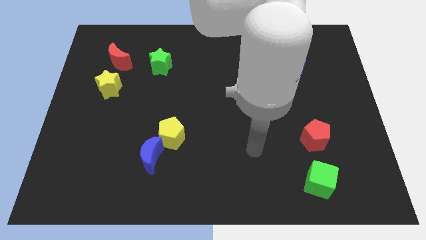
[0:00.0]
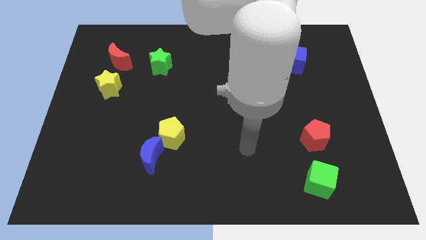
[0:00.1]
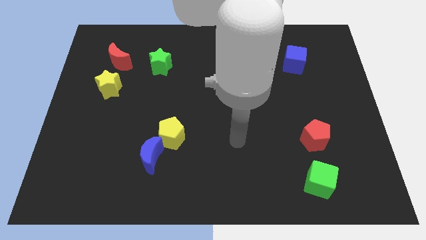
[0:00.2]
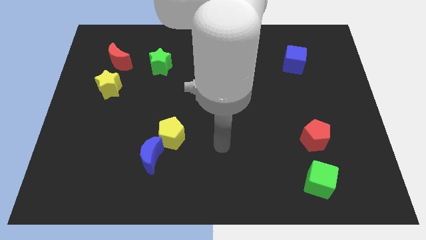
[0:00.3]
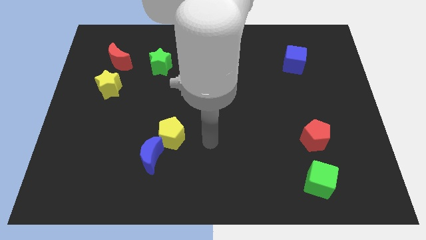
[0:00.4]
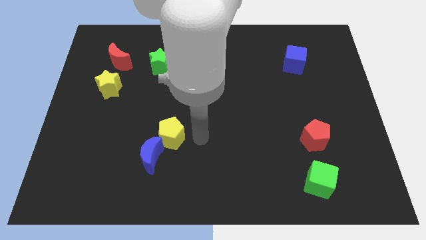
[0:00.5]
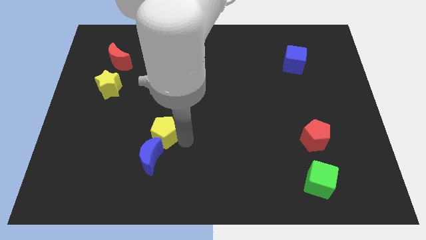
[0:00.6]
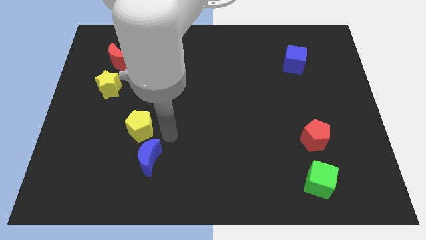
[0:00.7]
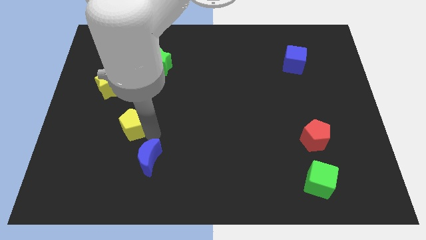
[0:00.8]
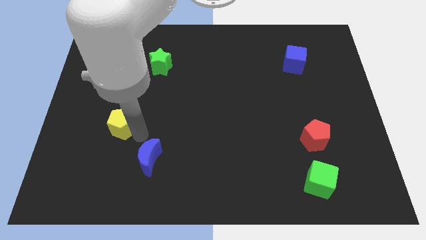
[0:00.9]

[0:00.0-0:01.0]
move the blue moon away from the yellow pentagon

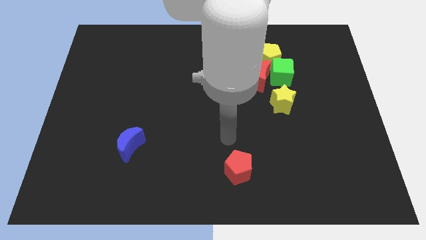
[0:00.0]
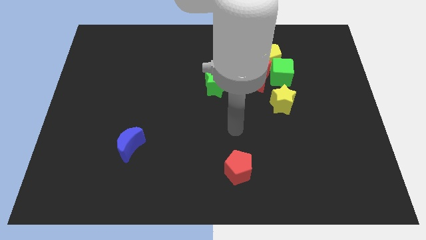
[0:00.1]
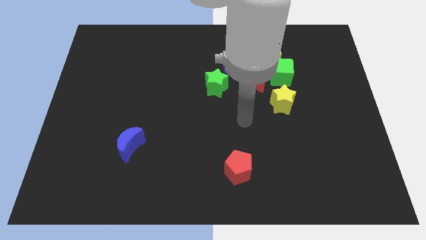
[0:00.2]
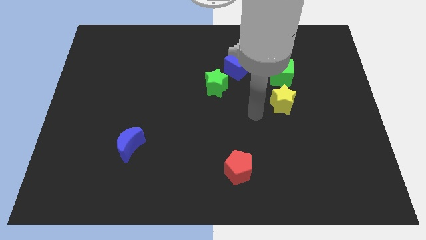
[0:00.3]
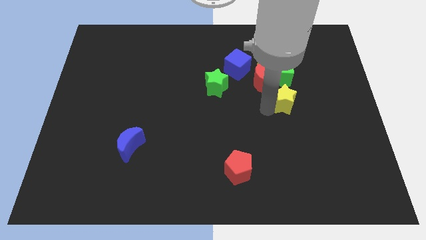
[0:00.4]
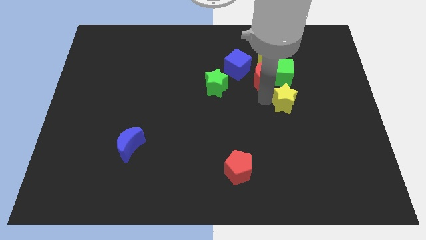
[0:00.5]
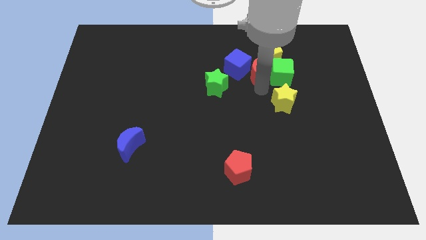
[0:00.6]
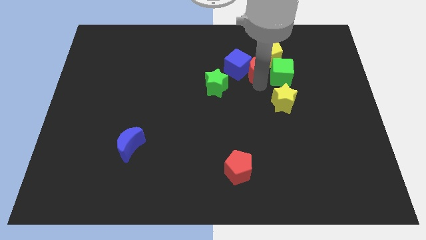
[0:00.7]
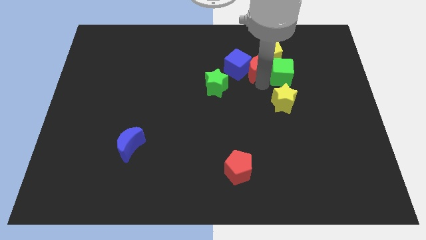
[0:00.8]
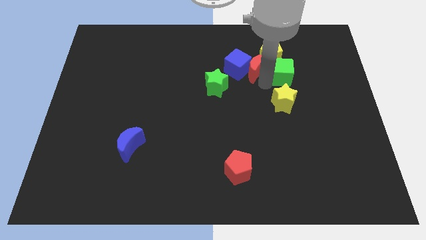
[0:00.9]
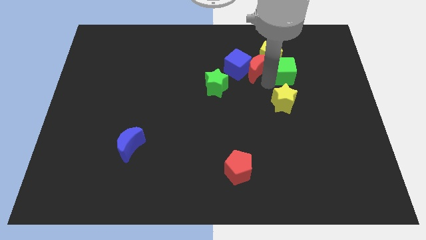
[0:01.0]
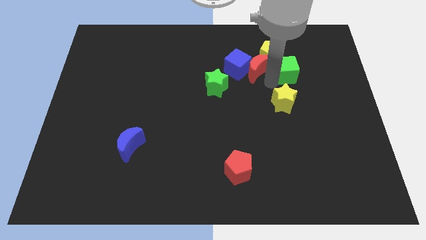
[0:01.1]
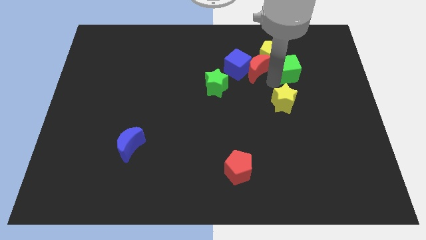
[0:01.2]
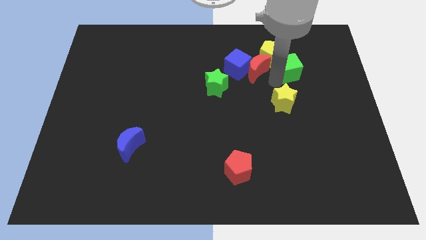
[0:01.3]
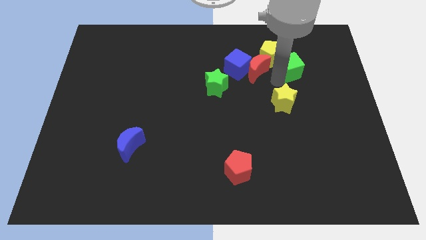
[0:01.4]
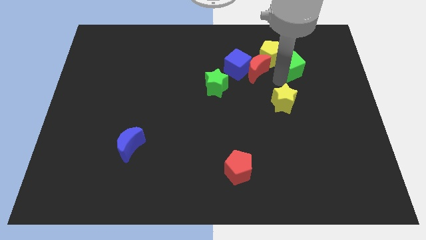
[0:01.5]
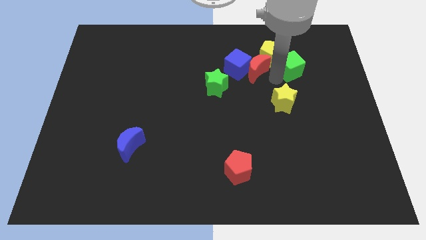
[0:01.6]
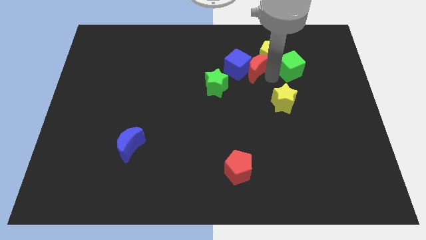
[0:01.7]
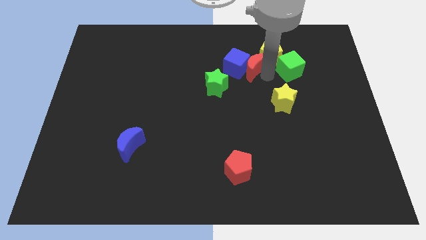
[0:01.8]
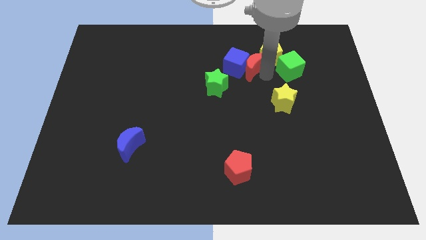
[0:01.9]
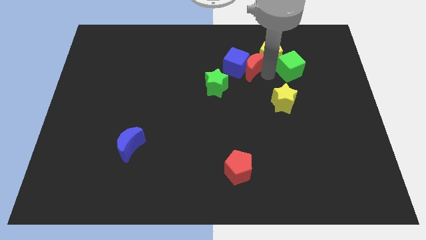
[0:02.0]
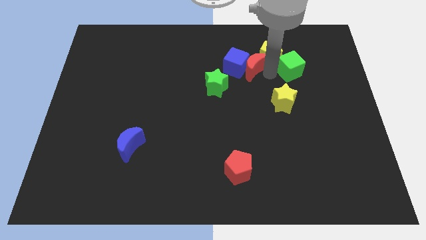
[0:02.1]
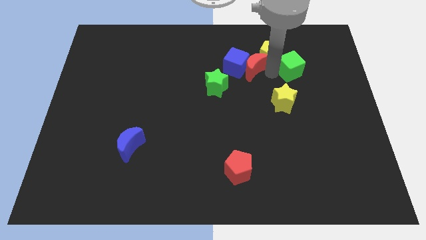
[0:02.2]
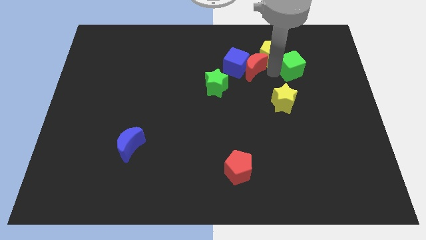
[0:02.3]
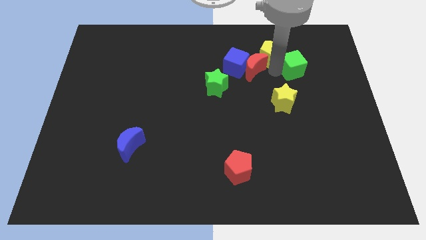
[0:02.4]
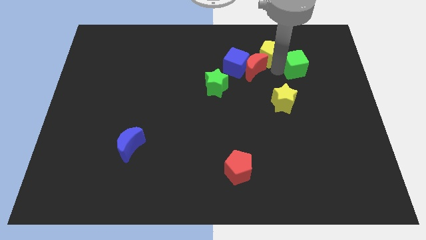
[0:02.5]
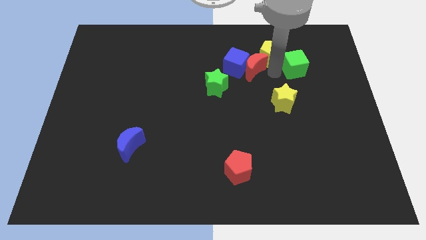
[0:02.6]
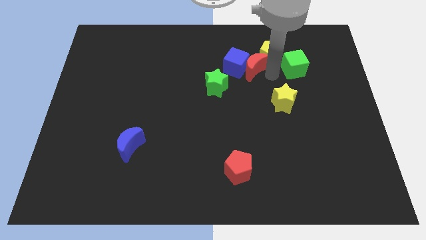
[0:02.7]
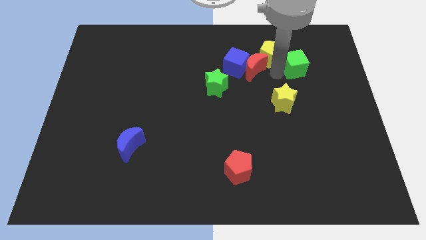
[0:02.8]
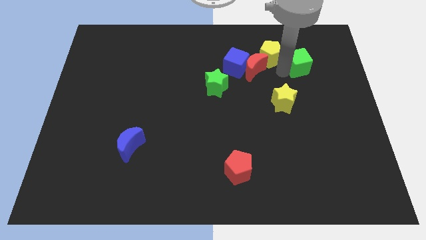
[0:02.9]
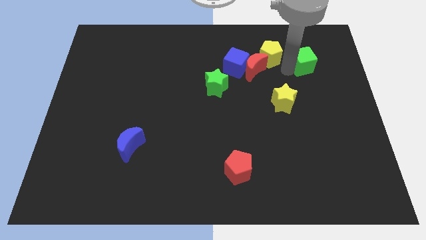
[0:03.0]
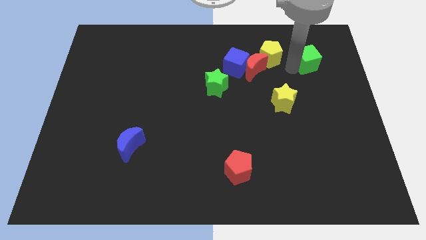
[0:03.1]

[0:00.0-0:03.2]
move the green cube away from the group of blocks

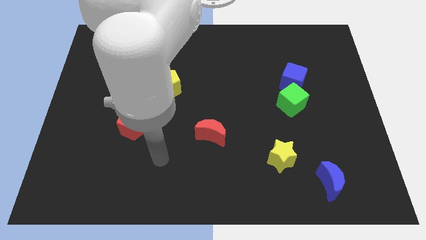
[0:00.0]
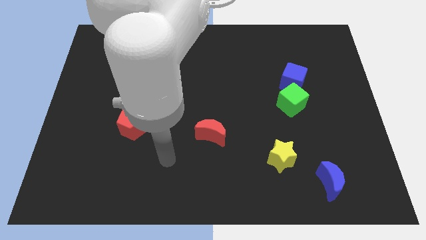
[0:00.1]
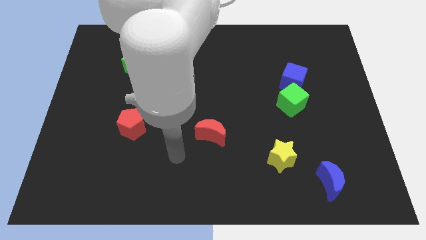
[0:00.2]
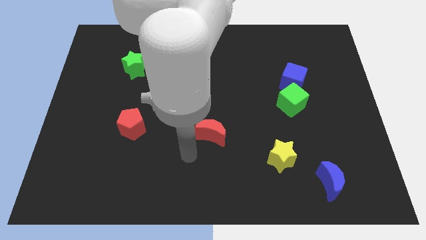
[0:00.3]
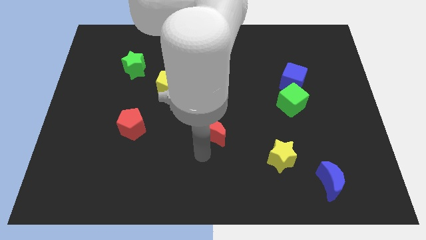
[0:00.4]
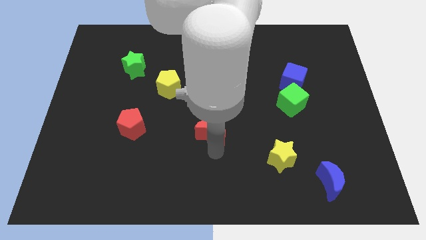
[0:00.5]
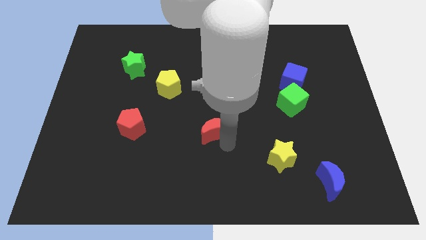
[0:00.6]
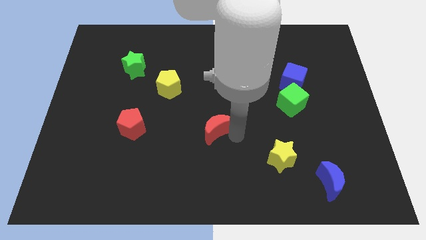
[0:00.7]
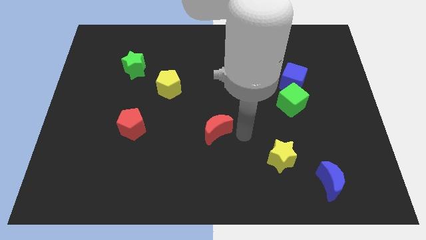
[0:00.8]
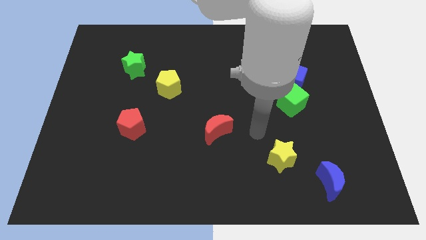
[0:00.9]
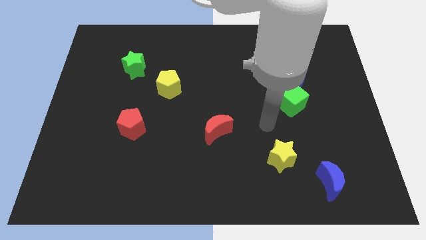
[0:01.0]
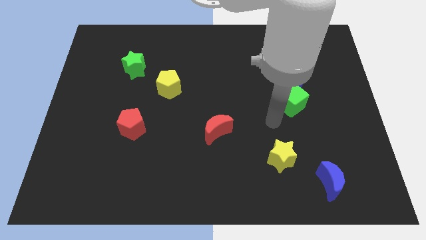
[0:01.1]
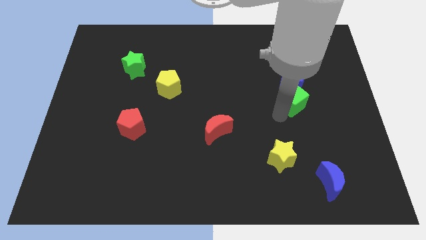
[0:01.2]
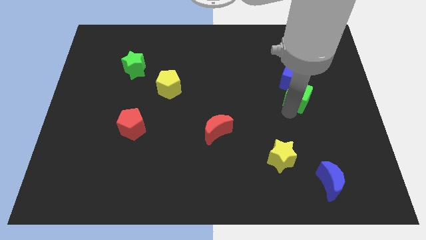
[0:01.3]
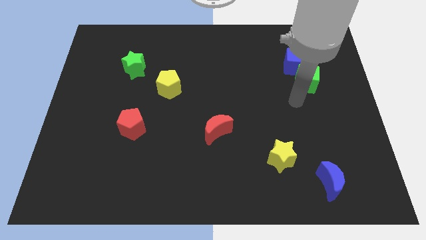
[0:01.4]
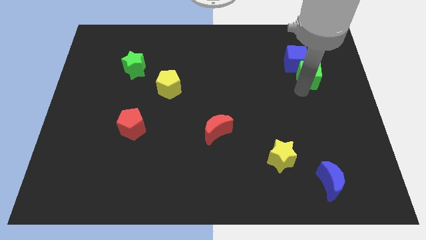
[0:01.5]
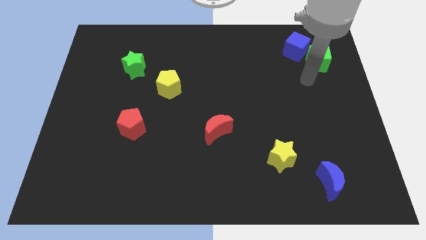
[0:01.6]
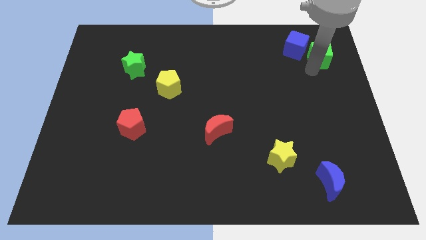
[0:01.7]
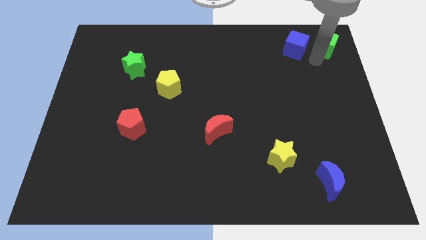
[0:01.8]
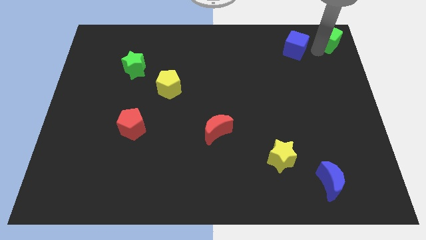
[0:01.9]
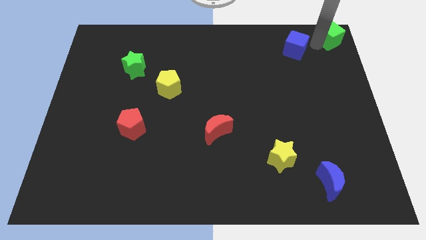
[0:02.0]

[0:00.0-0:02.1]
separate the blue cube from the green cube

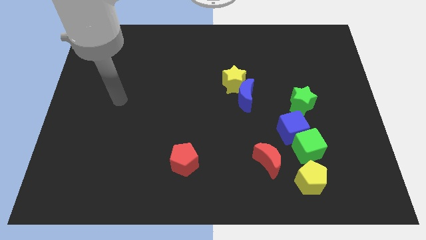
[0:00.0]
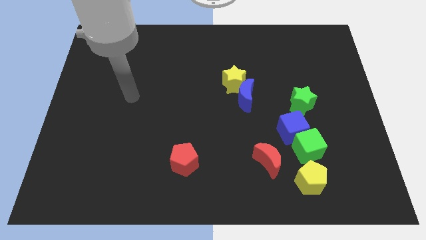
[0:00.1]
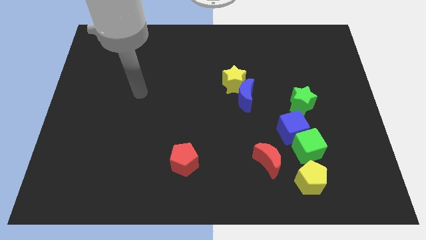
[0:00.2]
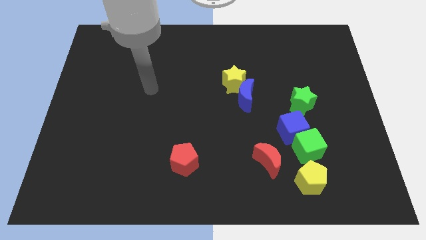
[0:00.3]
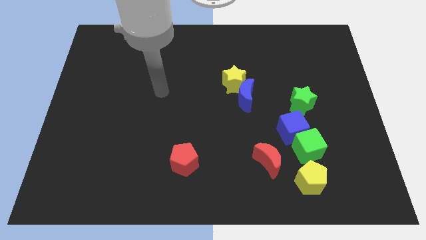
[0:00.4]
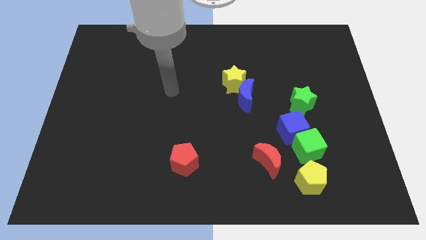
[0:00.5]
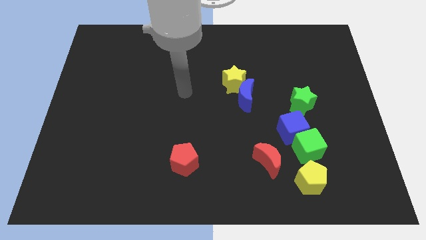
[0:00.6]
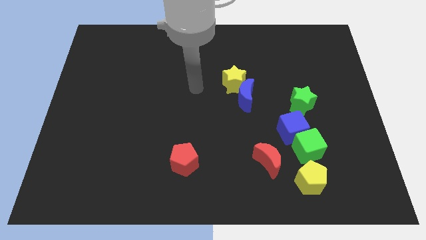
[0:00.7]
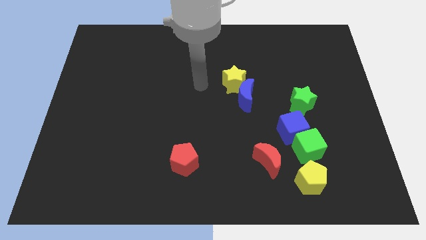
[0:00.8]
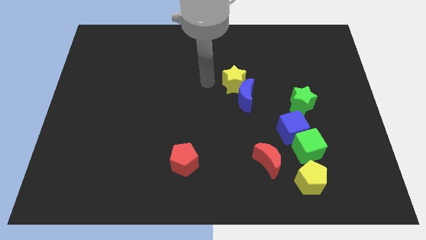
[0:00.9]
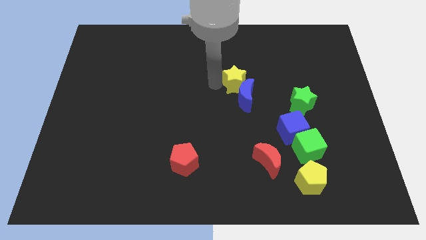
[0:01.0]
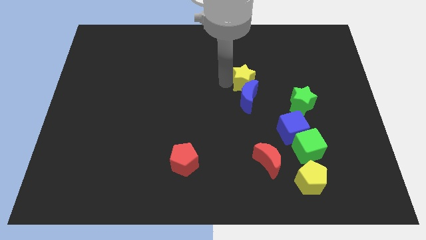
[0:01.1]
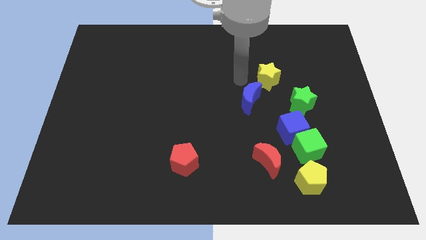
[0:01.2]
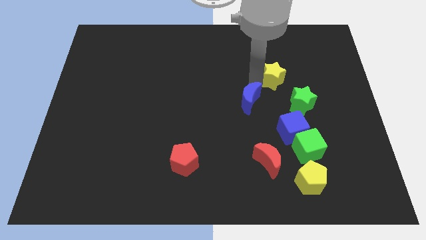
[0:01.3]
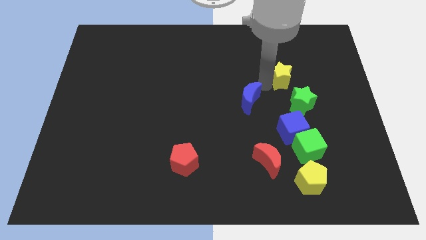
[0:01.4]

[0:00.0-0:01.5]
pull the blue moon apart from the yellow star

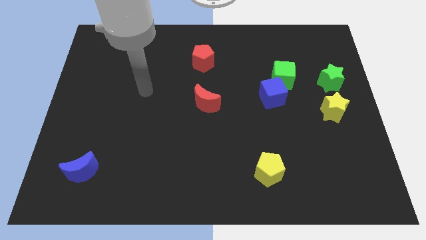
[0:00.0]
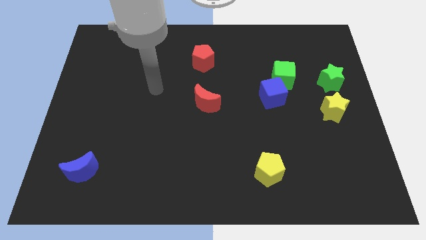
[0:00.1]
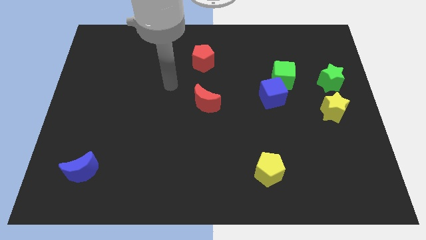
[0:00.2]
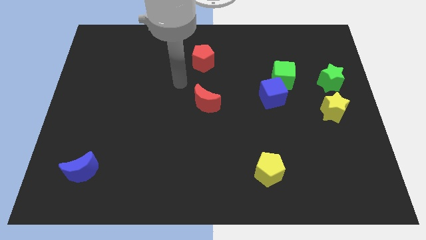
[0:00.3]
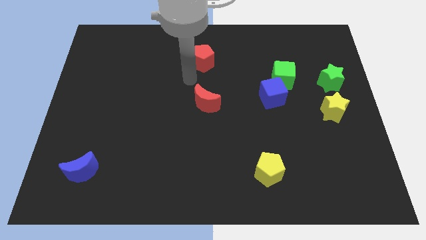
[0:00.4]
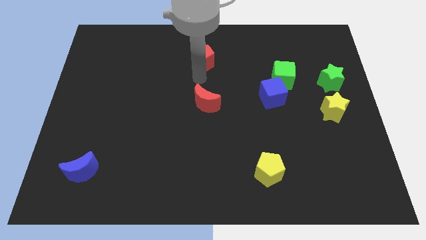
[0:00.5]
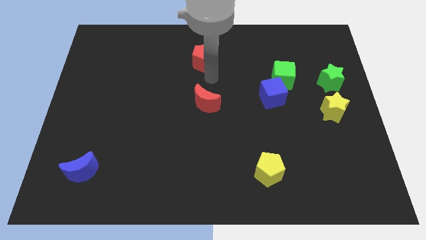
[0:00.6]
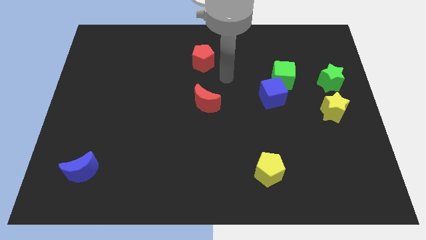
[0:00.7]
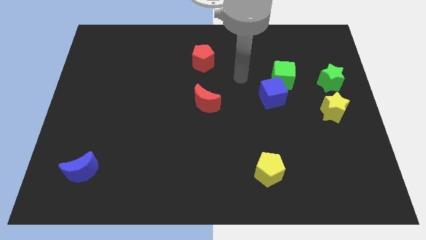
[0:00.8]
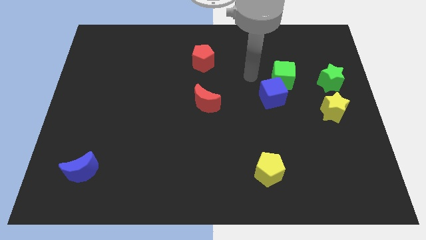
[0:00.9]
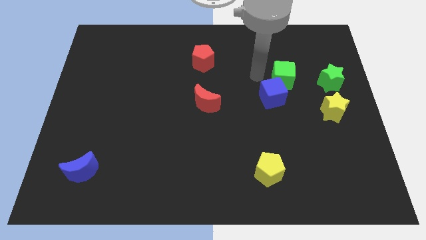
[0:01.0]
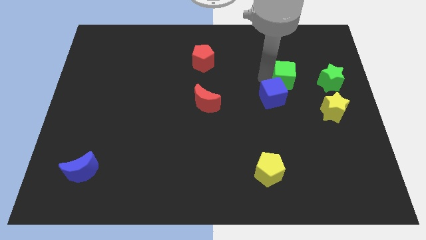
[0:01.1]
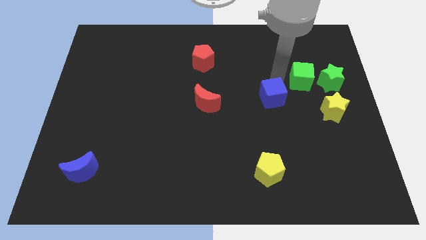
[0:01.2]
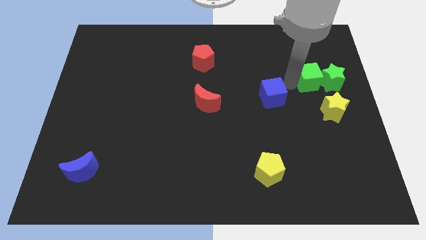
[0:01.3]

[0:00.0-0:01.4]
move the blue cube away from the green cube

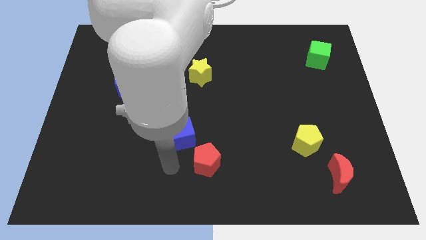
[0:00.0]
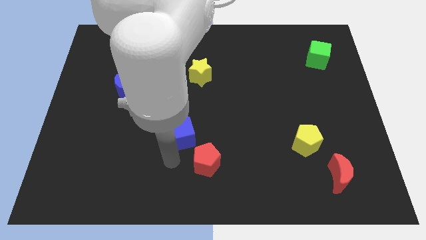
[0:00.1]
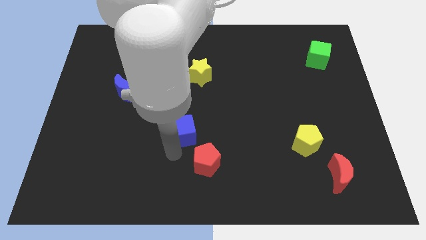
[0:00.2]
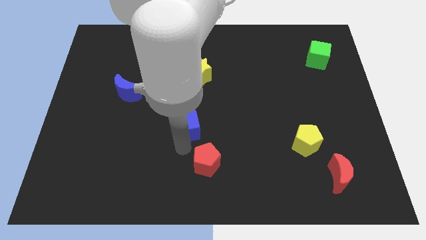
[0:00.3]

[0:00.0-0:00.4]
pull the red pentagon apart from the blue cube
